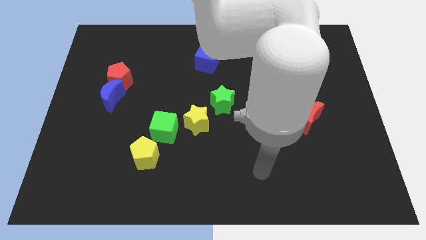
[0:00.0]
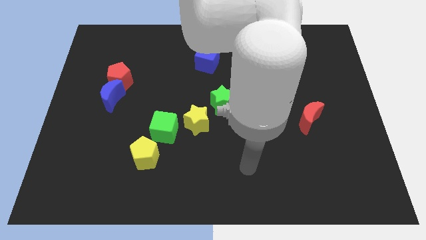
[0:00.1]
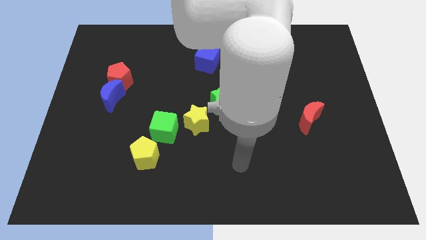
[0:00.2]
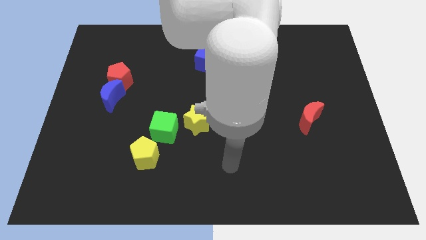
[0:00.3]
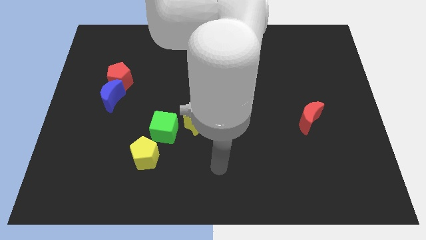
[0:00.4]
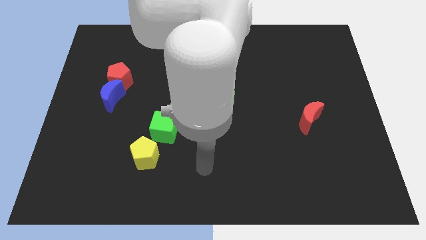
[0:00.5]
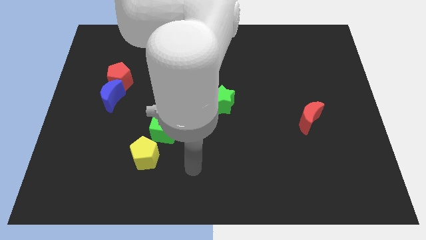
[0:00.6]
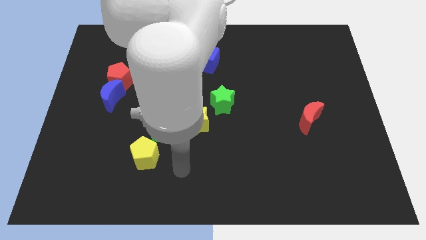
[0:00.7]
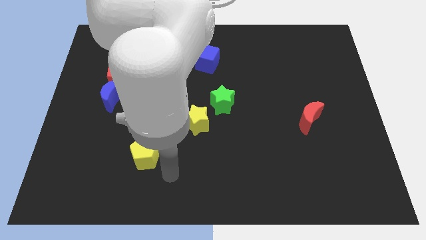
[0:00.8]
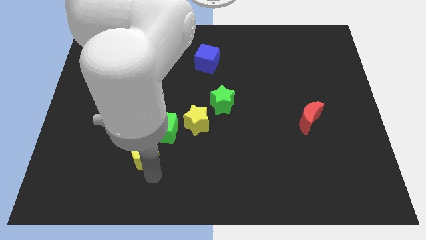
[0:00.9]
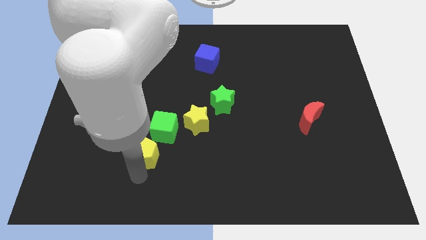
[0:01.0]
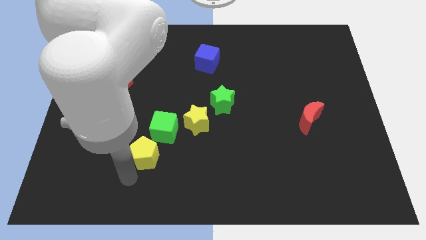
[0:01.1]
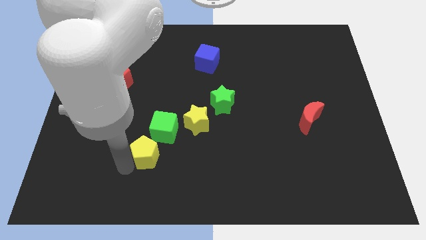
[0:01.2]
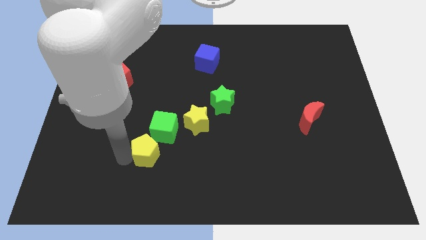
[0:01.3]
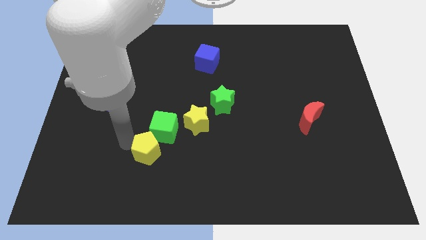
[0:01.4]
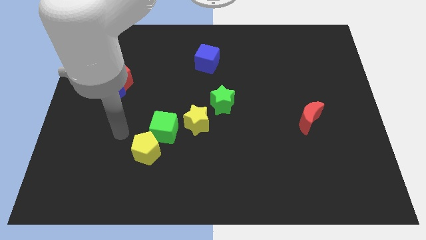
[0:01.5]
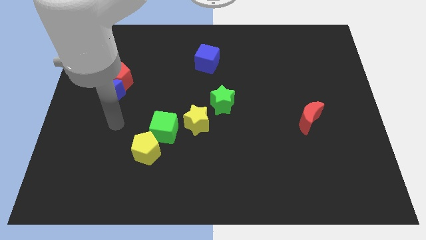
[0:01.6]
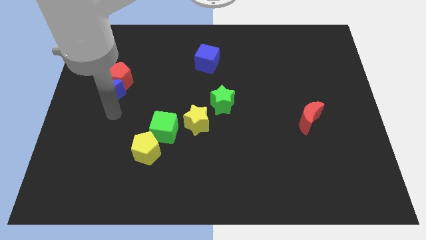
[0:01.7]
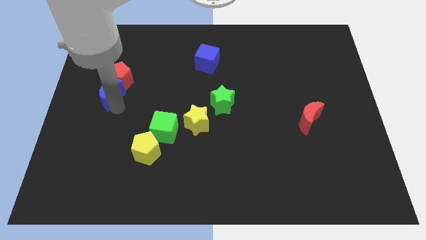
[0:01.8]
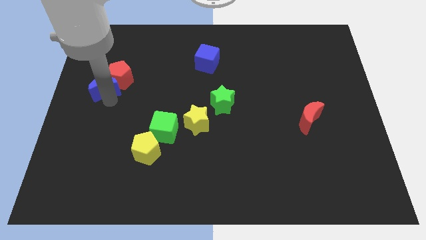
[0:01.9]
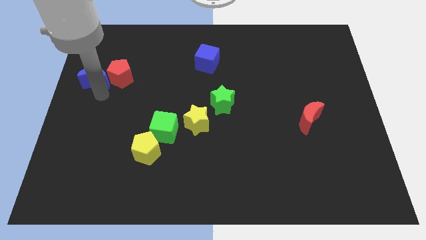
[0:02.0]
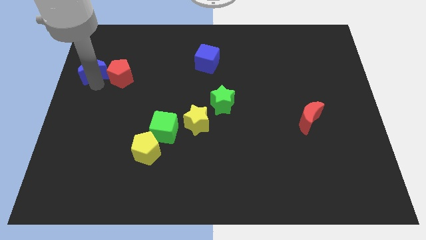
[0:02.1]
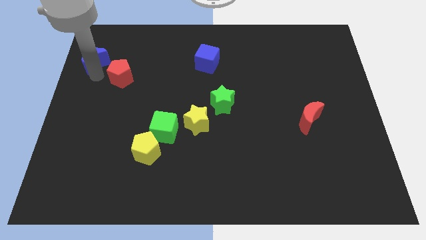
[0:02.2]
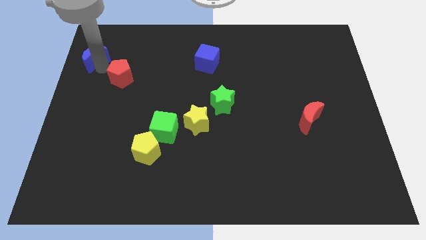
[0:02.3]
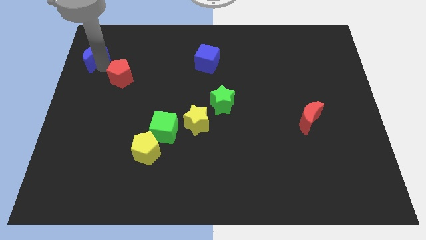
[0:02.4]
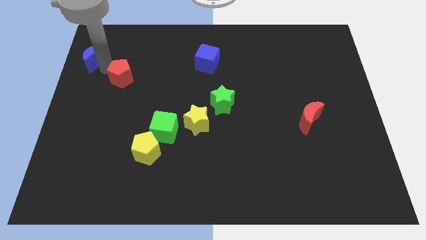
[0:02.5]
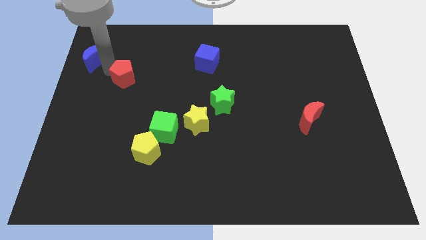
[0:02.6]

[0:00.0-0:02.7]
separate the red pentagon from the blue moon

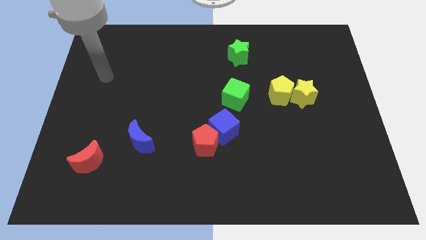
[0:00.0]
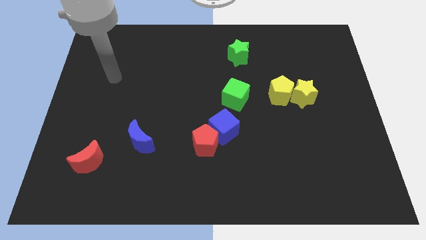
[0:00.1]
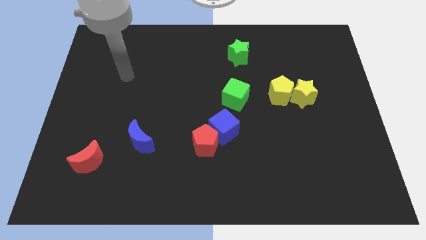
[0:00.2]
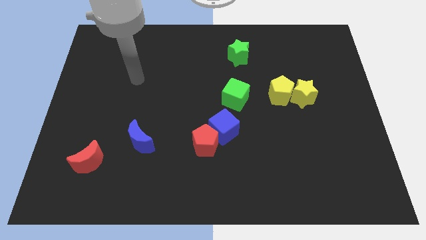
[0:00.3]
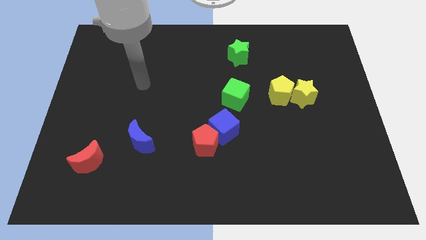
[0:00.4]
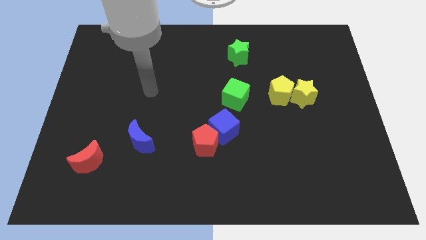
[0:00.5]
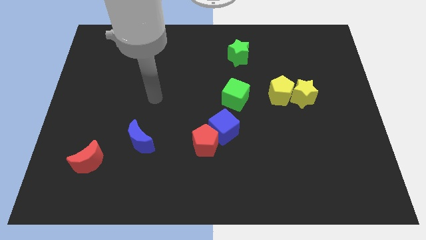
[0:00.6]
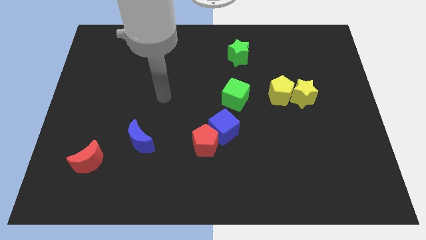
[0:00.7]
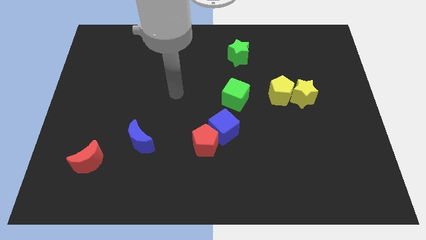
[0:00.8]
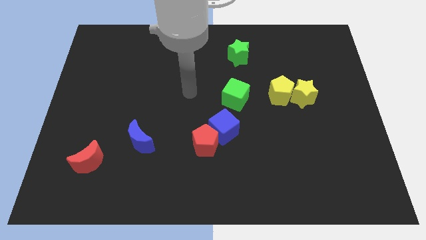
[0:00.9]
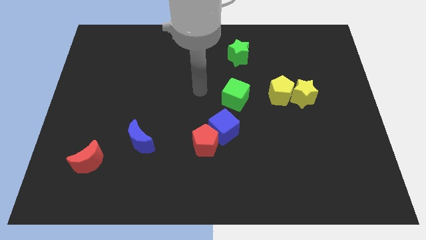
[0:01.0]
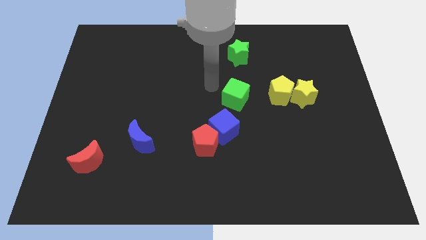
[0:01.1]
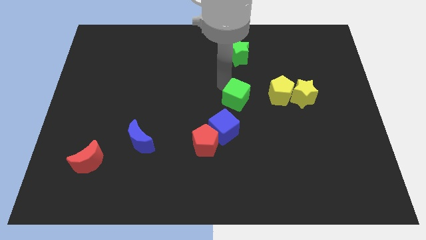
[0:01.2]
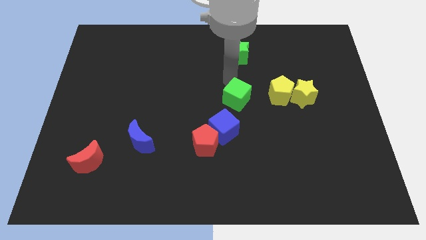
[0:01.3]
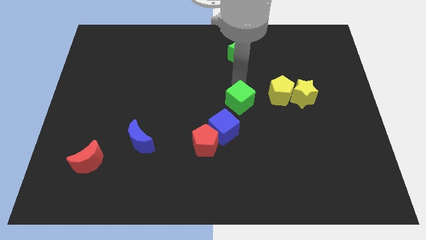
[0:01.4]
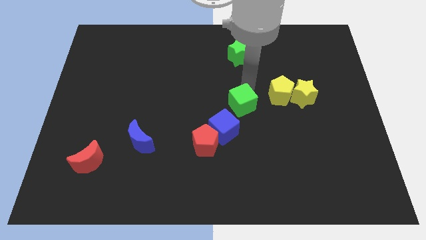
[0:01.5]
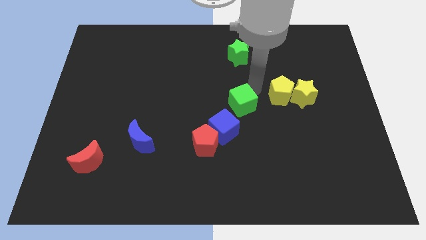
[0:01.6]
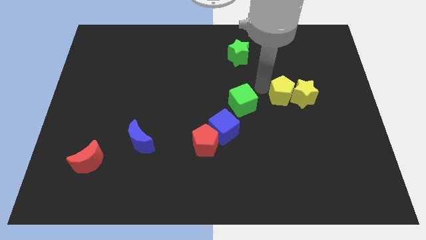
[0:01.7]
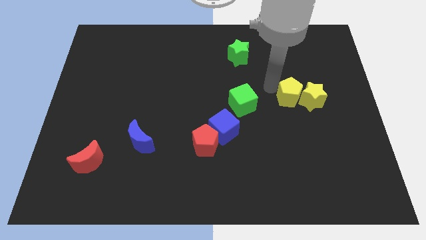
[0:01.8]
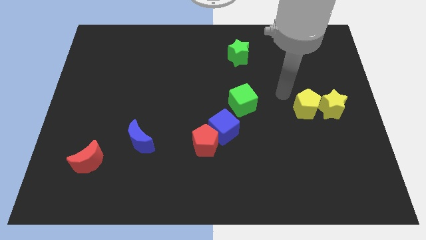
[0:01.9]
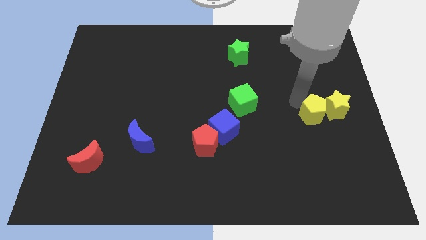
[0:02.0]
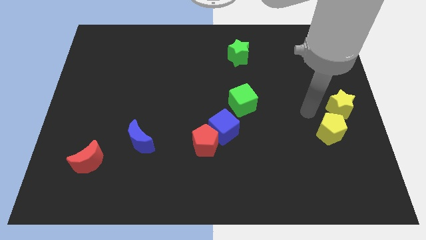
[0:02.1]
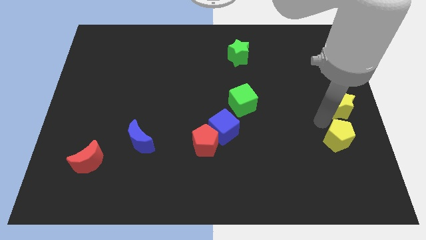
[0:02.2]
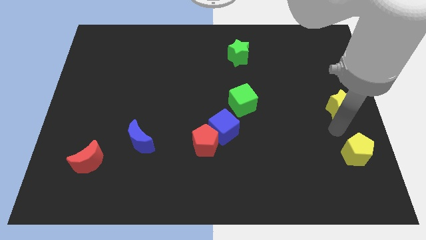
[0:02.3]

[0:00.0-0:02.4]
separate the yellow star from the yellow pentagon

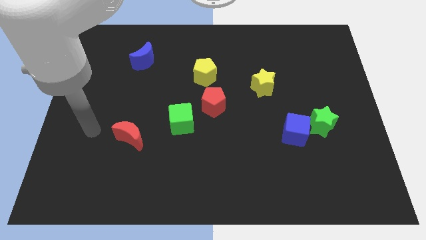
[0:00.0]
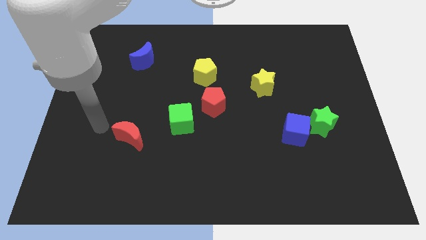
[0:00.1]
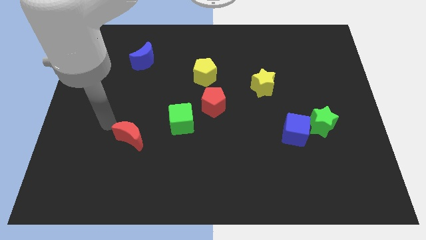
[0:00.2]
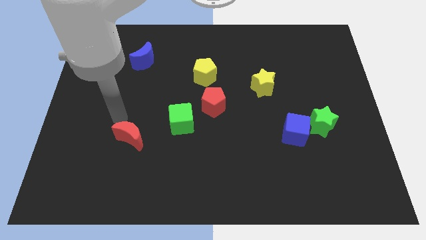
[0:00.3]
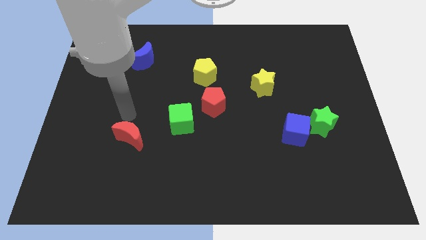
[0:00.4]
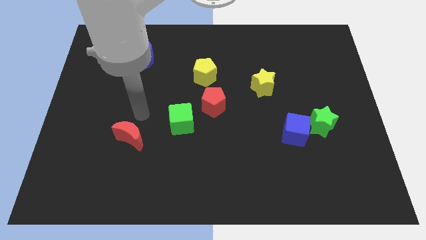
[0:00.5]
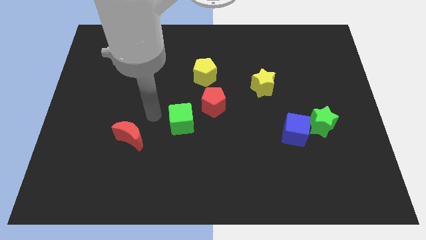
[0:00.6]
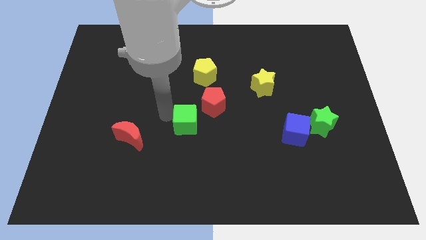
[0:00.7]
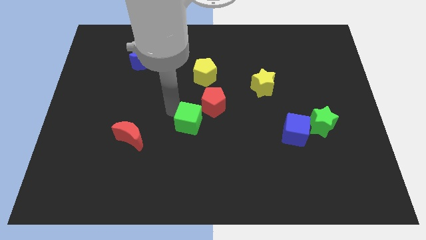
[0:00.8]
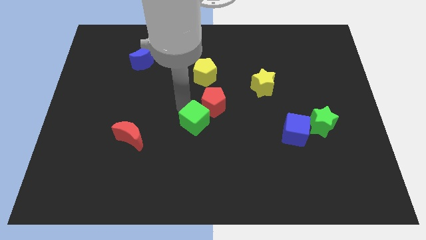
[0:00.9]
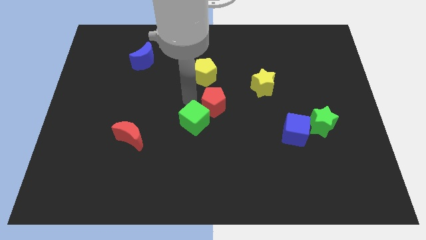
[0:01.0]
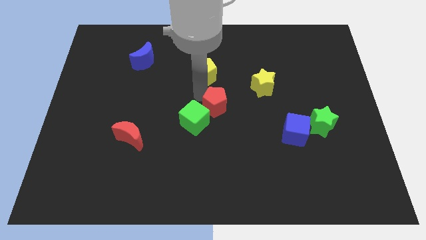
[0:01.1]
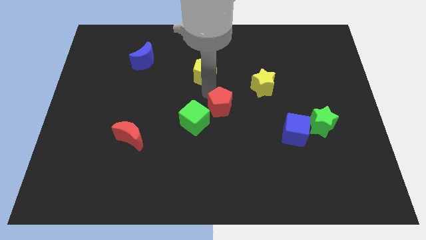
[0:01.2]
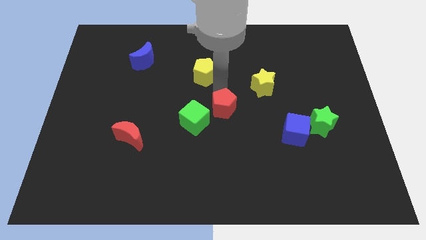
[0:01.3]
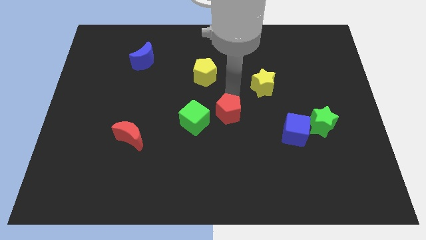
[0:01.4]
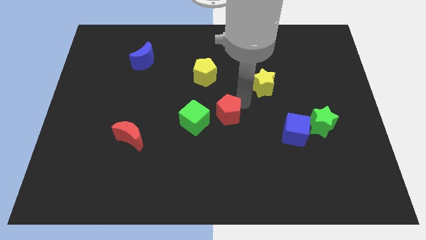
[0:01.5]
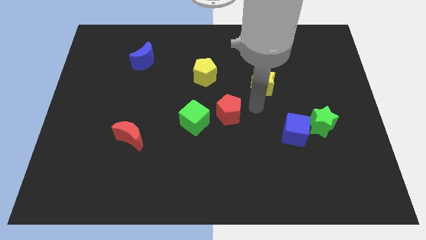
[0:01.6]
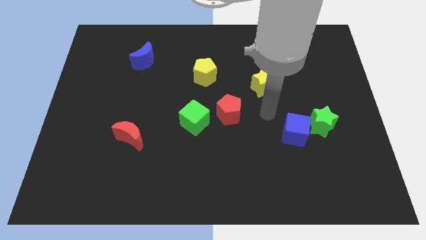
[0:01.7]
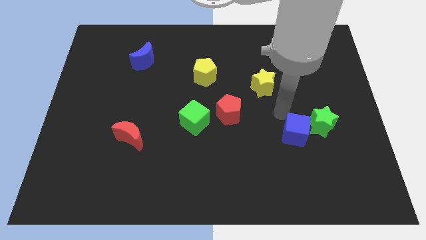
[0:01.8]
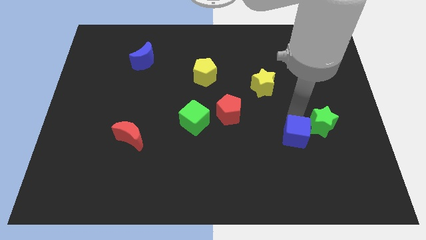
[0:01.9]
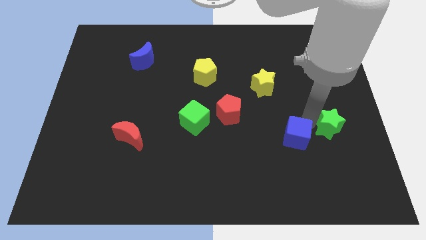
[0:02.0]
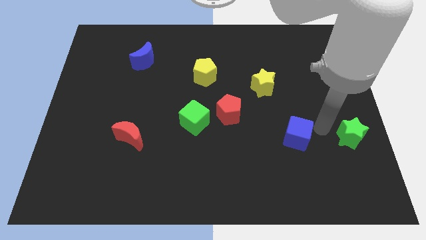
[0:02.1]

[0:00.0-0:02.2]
move the blue cube away from the green star

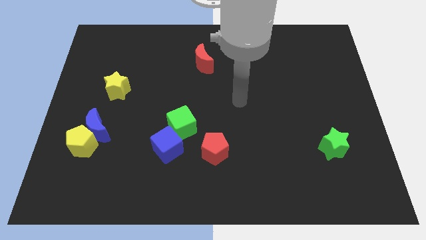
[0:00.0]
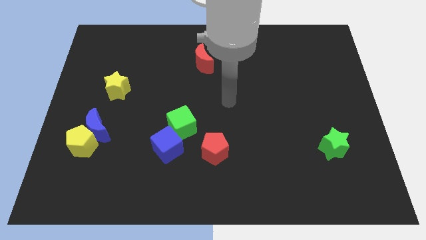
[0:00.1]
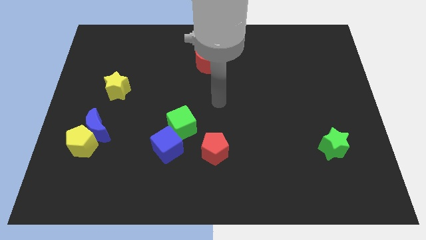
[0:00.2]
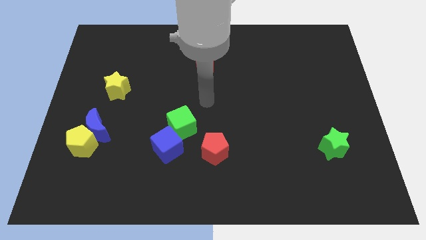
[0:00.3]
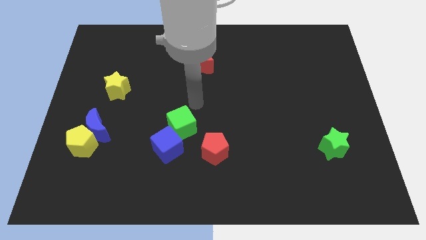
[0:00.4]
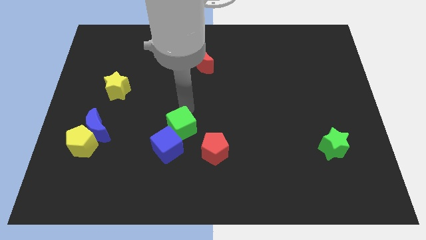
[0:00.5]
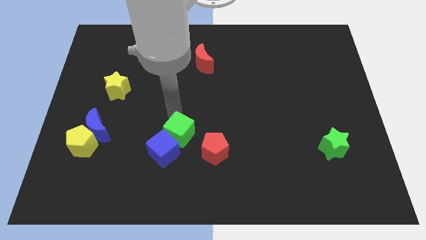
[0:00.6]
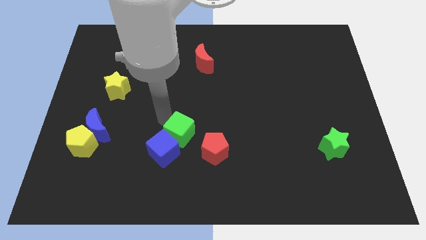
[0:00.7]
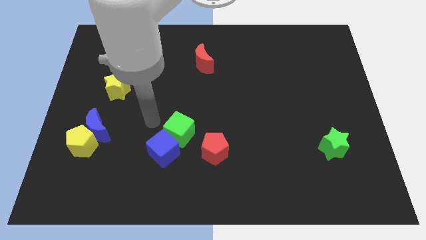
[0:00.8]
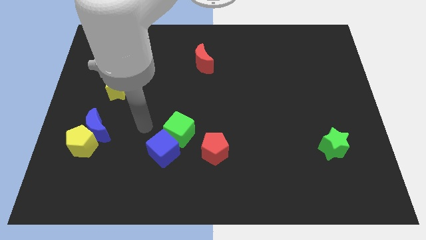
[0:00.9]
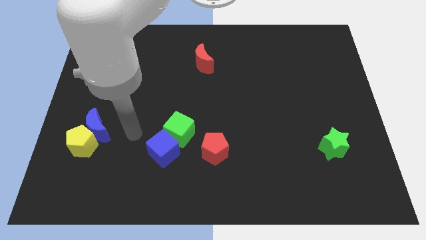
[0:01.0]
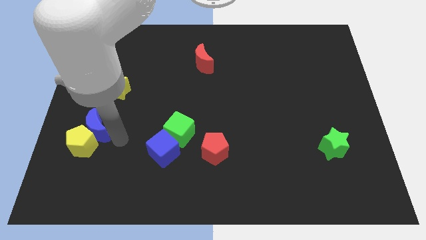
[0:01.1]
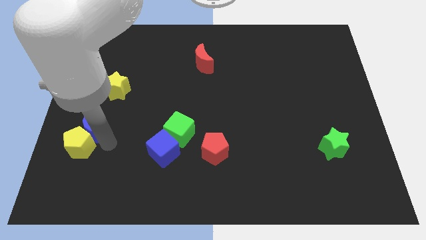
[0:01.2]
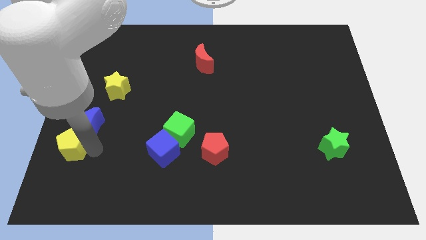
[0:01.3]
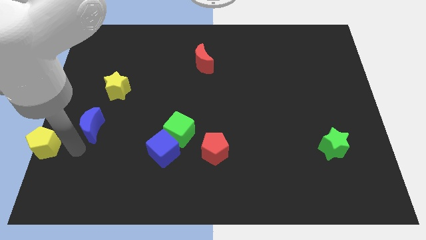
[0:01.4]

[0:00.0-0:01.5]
move the blue moon away from the yellow pentagon

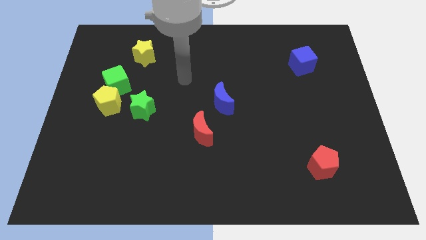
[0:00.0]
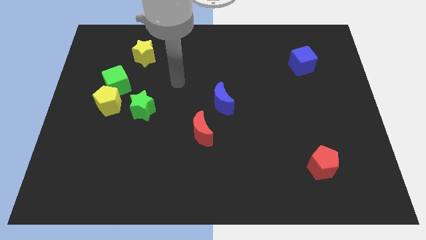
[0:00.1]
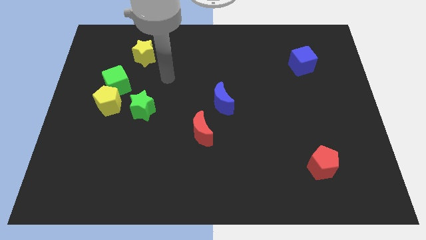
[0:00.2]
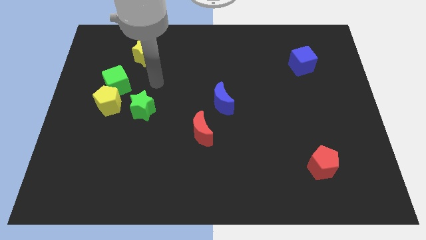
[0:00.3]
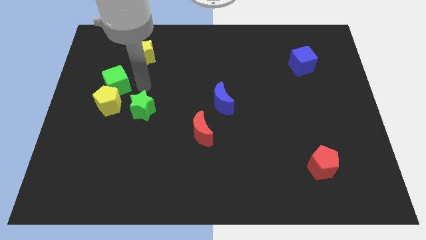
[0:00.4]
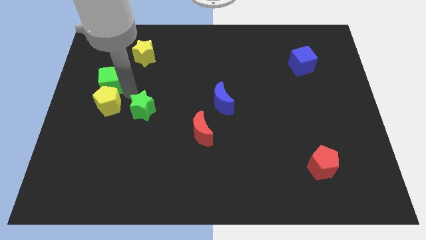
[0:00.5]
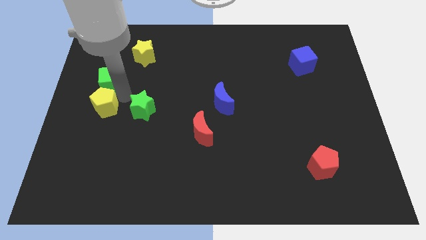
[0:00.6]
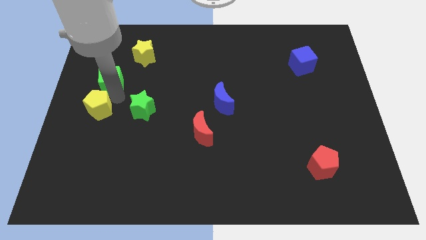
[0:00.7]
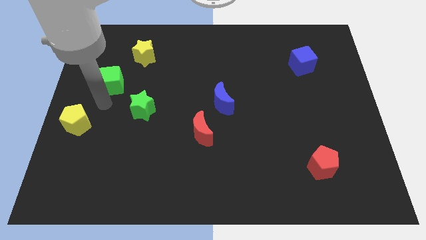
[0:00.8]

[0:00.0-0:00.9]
pull the green cube apart from the yellow pentagon
